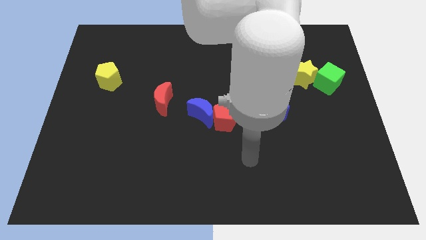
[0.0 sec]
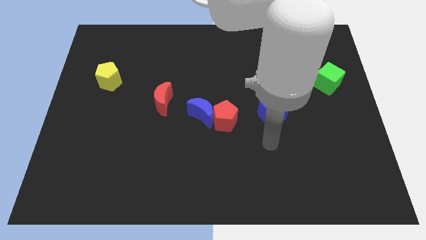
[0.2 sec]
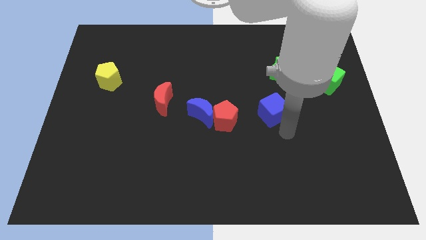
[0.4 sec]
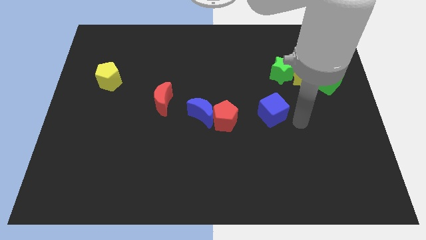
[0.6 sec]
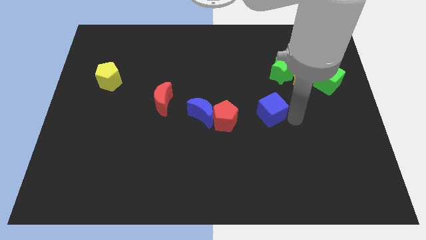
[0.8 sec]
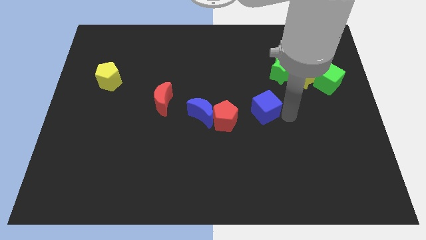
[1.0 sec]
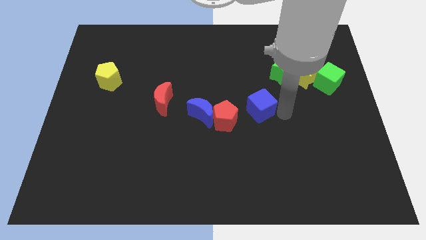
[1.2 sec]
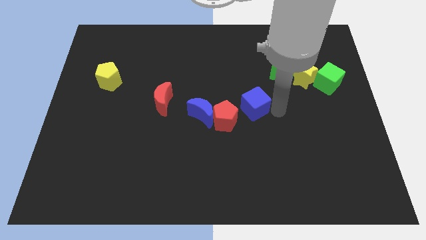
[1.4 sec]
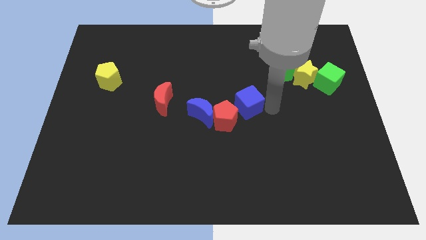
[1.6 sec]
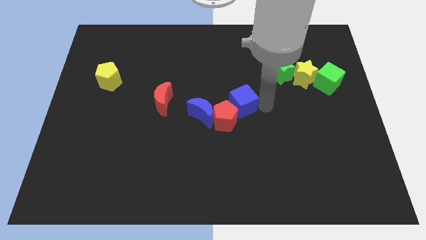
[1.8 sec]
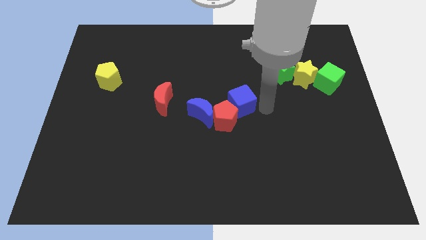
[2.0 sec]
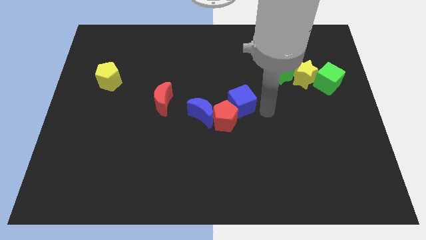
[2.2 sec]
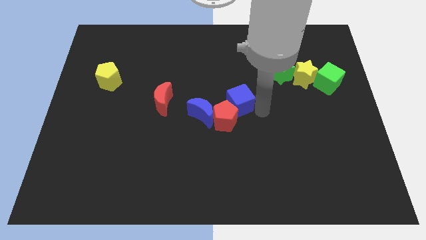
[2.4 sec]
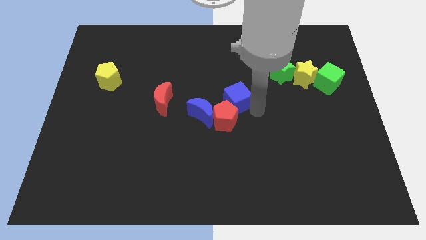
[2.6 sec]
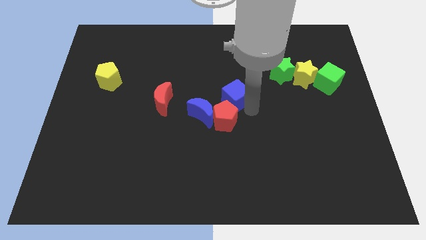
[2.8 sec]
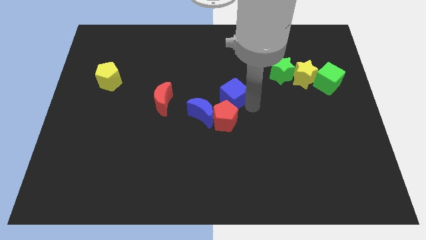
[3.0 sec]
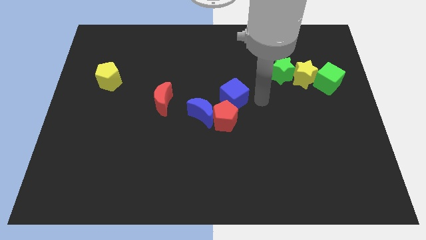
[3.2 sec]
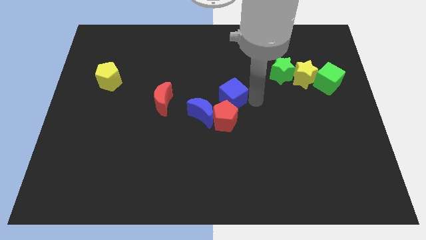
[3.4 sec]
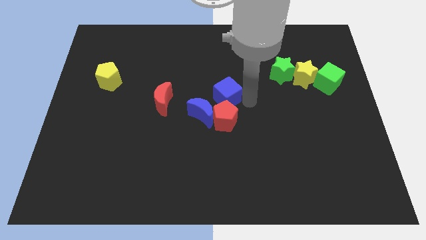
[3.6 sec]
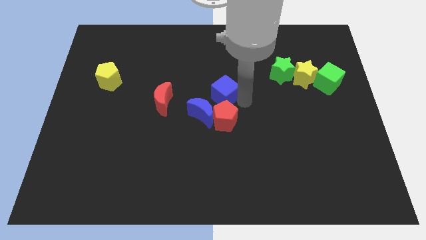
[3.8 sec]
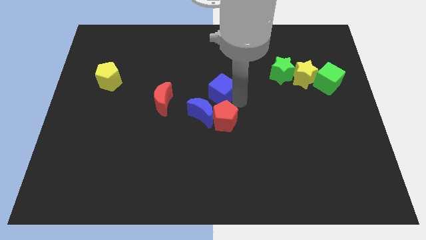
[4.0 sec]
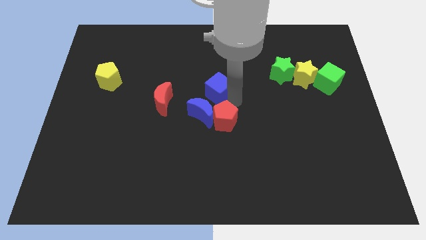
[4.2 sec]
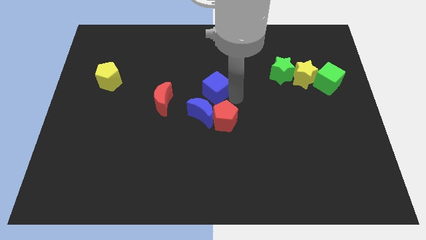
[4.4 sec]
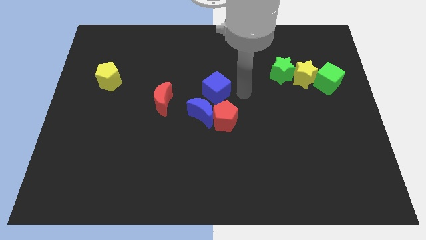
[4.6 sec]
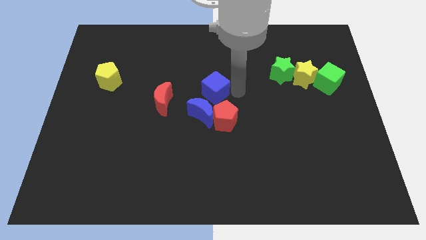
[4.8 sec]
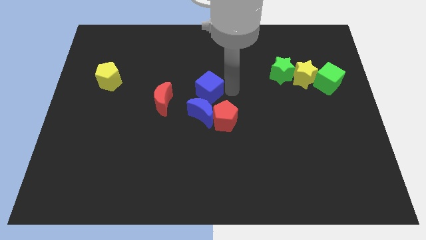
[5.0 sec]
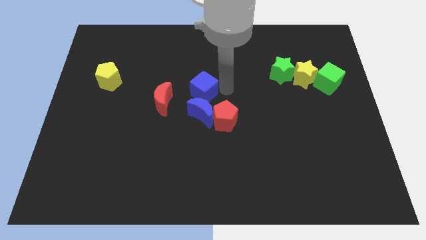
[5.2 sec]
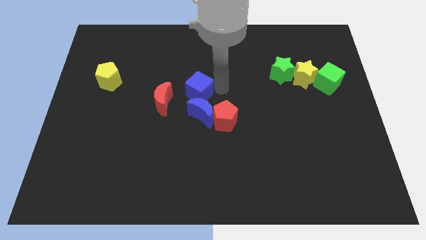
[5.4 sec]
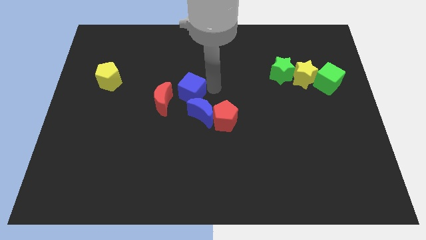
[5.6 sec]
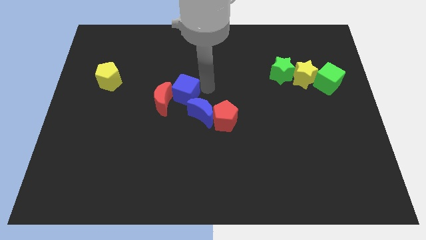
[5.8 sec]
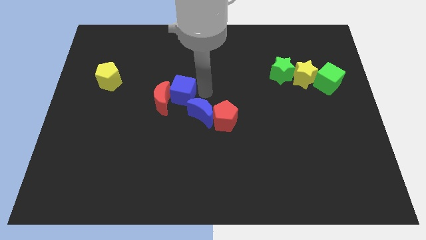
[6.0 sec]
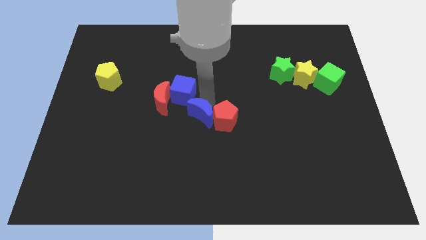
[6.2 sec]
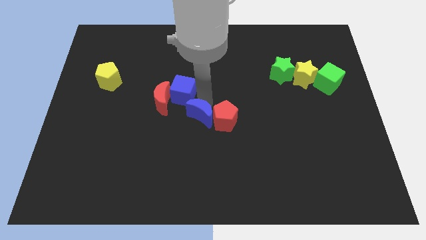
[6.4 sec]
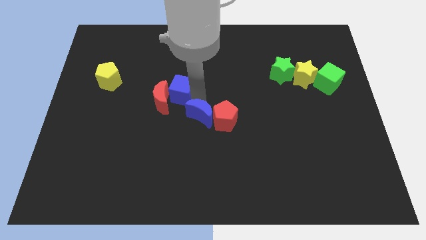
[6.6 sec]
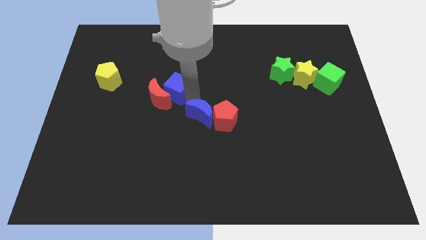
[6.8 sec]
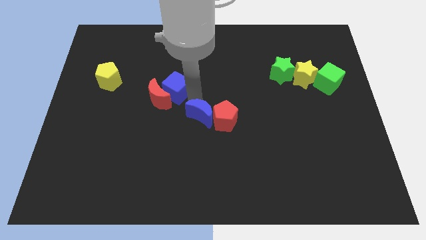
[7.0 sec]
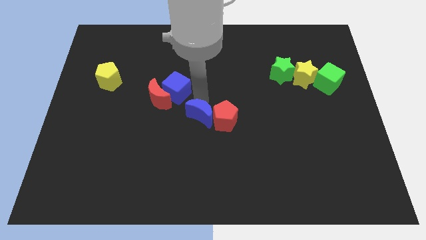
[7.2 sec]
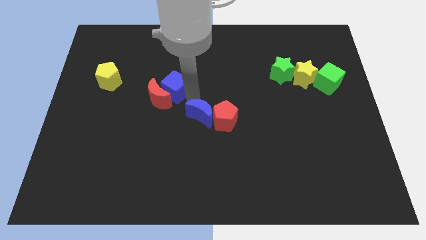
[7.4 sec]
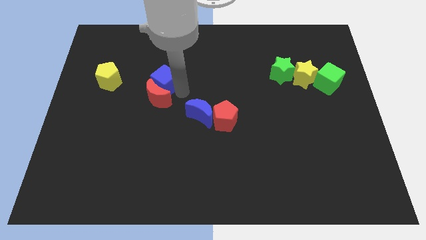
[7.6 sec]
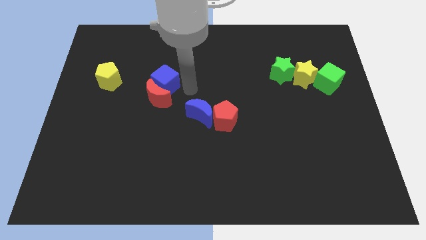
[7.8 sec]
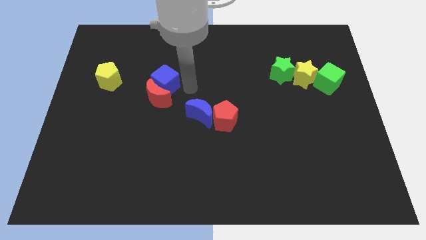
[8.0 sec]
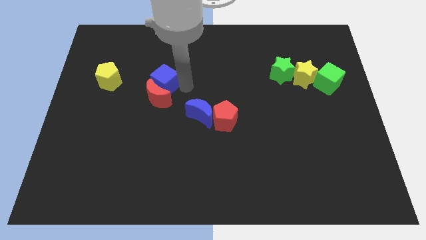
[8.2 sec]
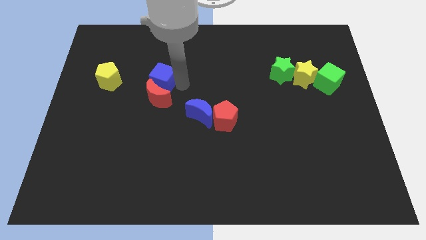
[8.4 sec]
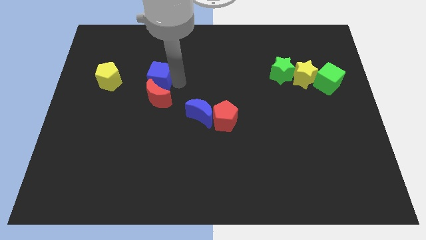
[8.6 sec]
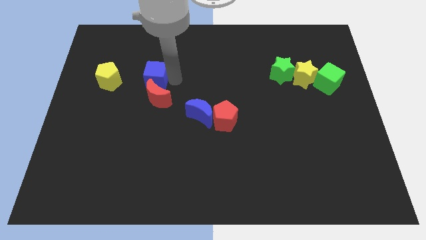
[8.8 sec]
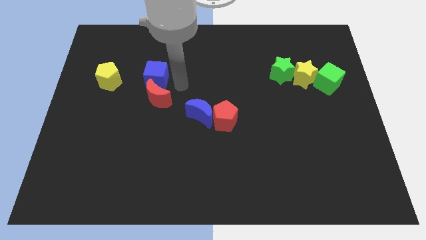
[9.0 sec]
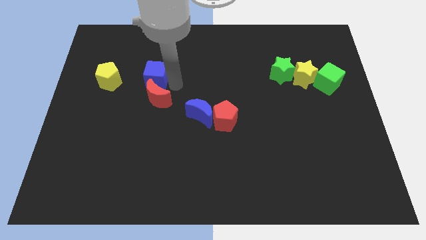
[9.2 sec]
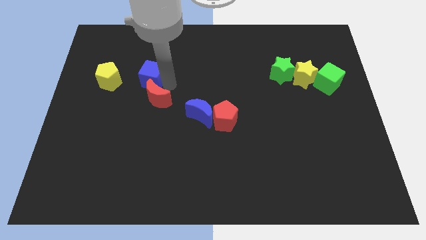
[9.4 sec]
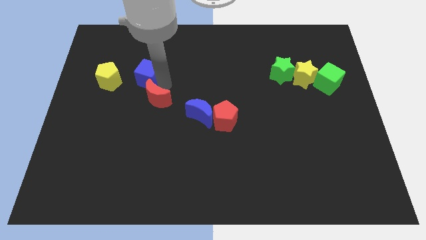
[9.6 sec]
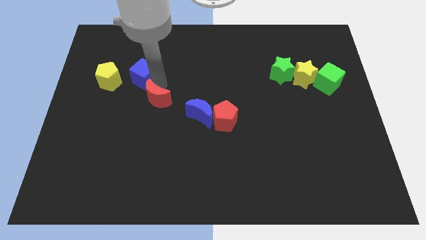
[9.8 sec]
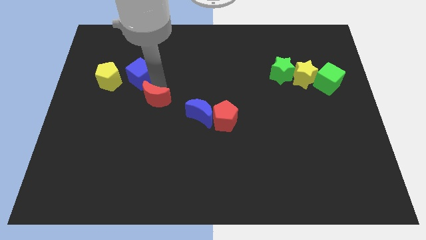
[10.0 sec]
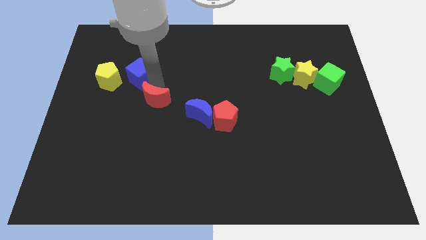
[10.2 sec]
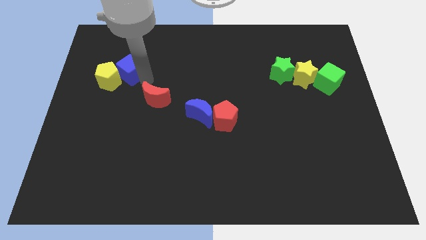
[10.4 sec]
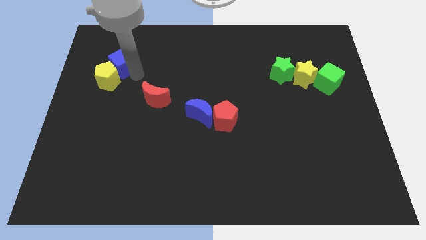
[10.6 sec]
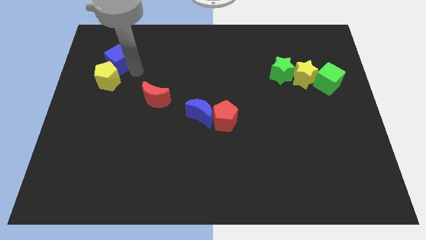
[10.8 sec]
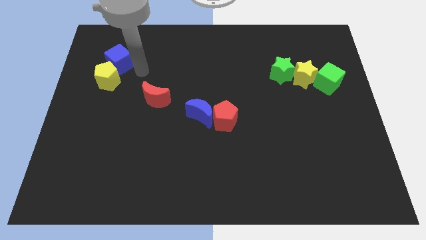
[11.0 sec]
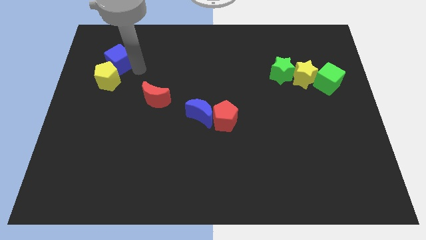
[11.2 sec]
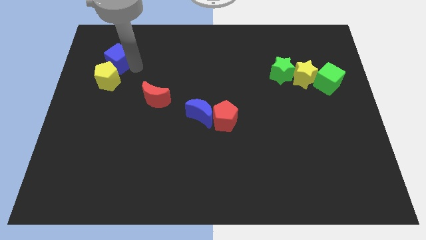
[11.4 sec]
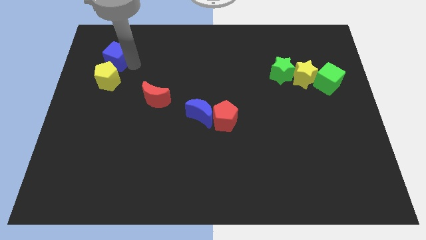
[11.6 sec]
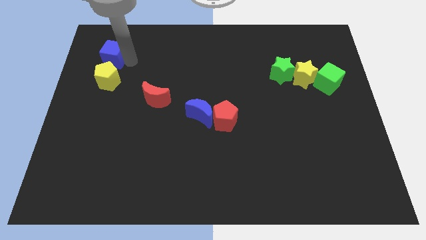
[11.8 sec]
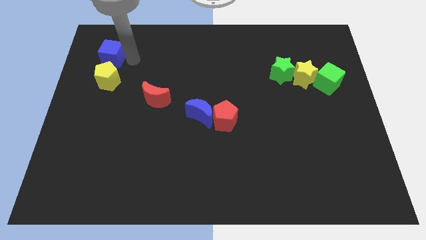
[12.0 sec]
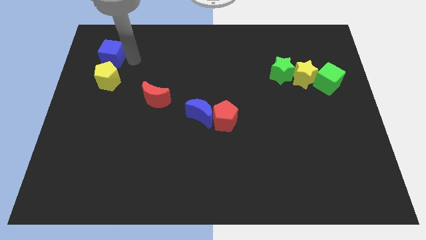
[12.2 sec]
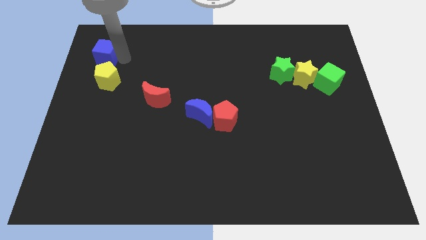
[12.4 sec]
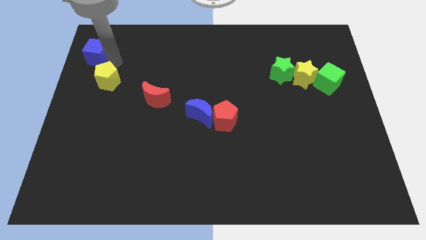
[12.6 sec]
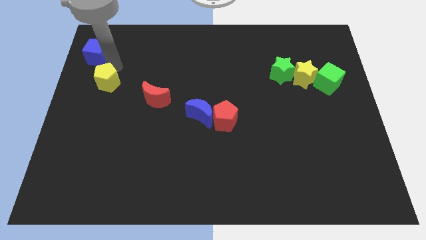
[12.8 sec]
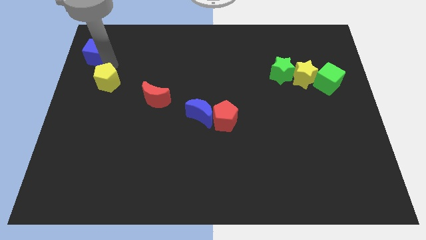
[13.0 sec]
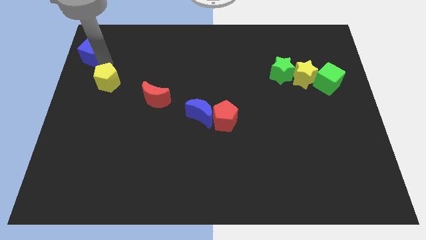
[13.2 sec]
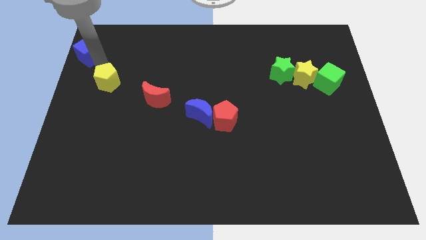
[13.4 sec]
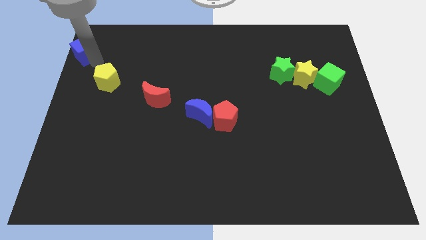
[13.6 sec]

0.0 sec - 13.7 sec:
move the blue cube to the top left of the board
